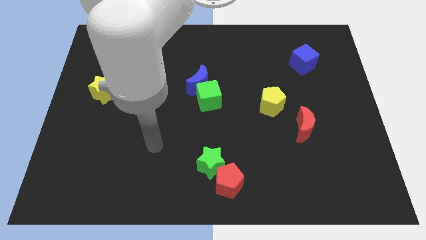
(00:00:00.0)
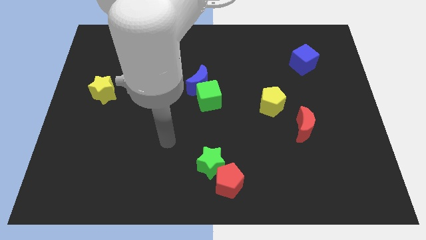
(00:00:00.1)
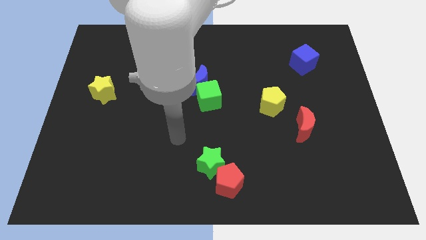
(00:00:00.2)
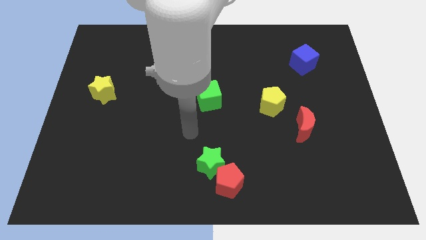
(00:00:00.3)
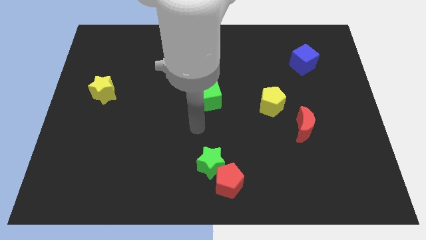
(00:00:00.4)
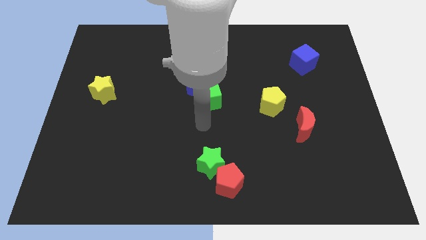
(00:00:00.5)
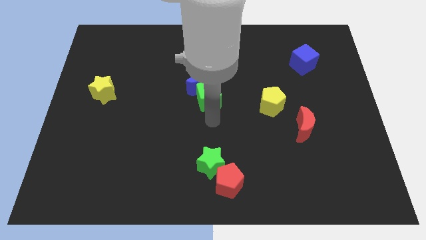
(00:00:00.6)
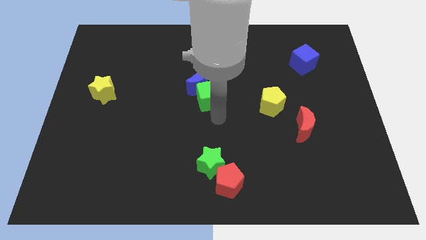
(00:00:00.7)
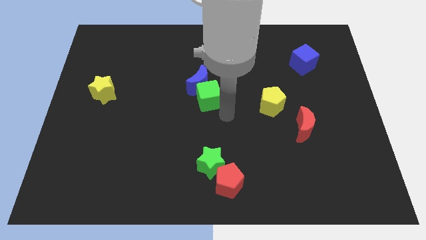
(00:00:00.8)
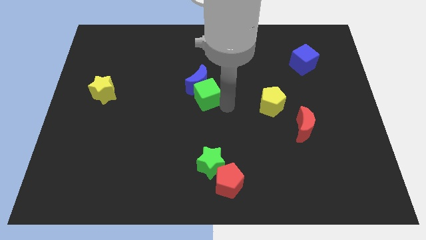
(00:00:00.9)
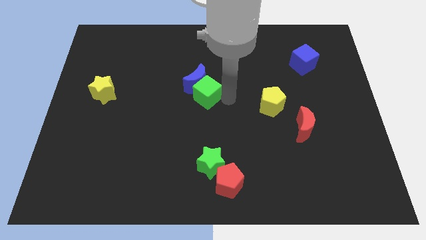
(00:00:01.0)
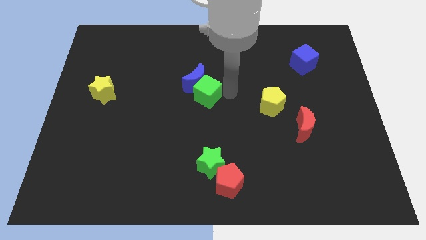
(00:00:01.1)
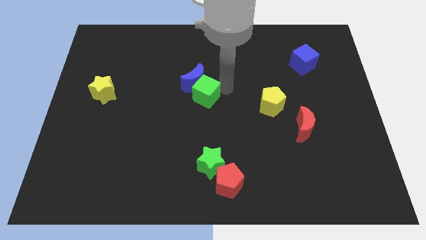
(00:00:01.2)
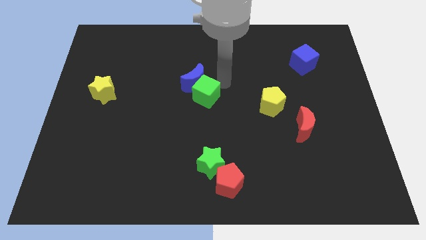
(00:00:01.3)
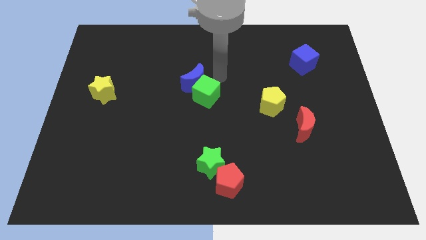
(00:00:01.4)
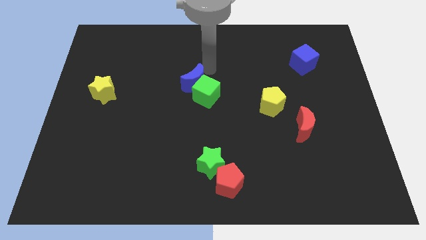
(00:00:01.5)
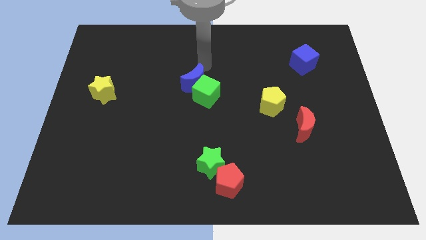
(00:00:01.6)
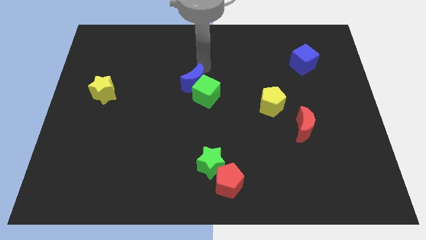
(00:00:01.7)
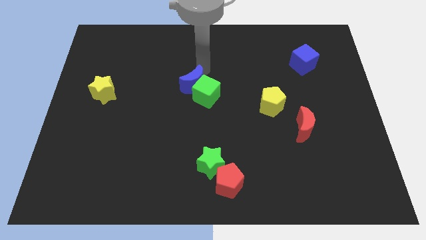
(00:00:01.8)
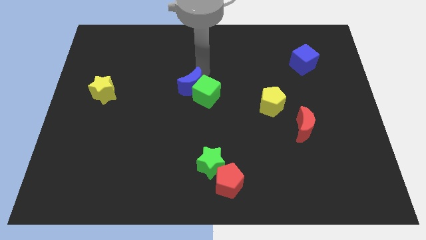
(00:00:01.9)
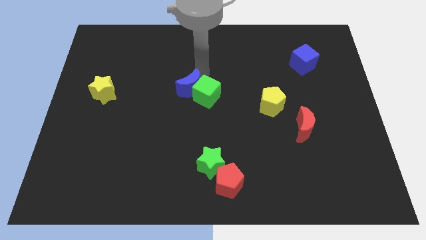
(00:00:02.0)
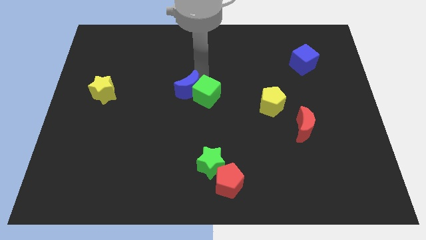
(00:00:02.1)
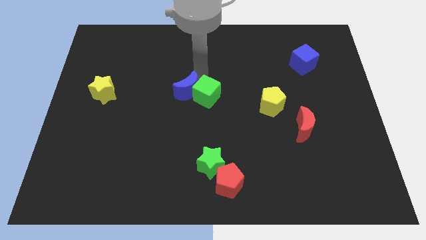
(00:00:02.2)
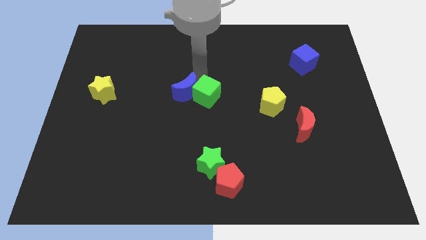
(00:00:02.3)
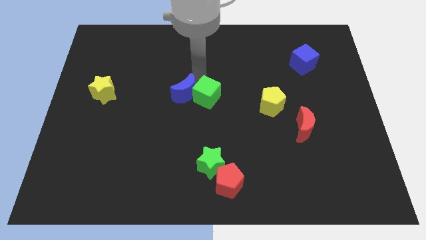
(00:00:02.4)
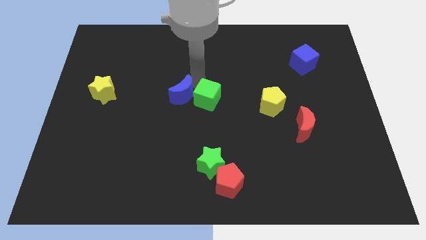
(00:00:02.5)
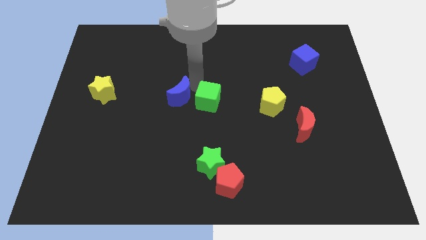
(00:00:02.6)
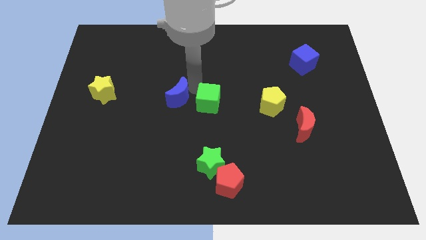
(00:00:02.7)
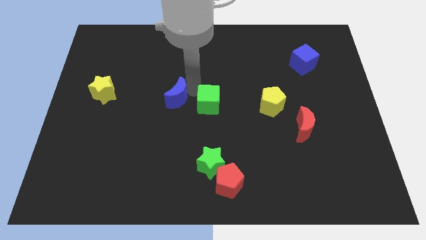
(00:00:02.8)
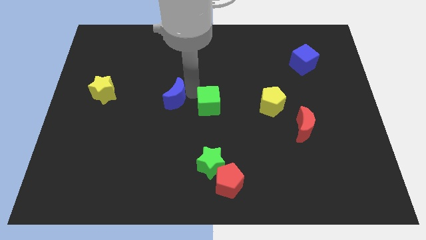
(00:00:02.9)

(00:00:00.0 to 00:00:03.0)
slide the blue moon diagonally downwards and left a little

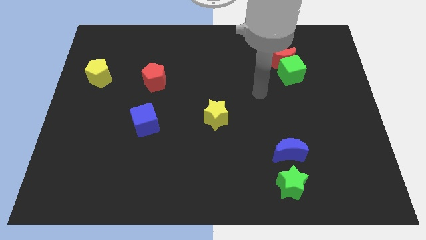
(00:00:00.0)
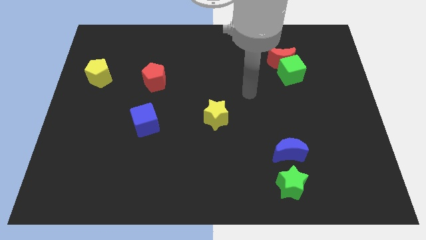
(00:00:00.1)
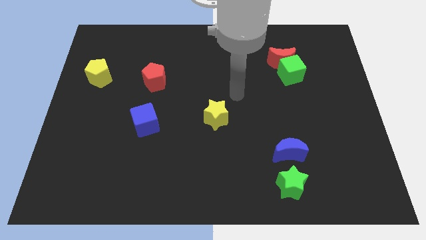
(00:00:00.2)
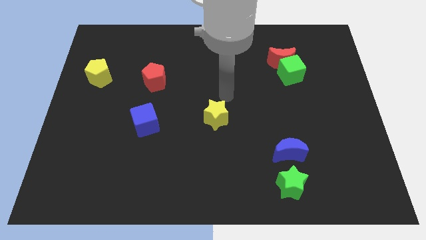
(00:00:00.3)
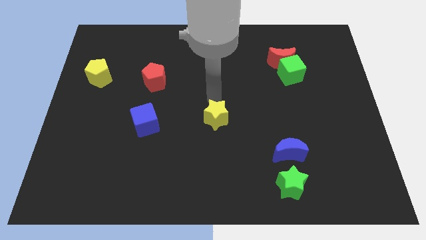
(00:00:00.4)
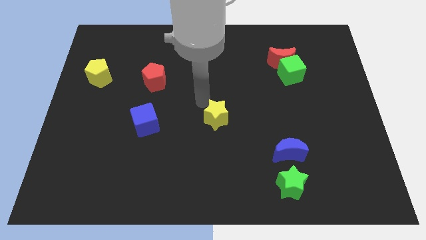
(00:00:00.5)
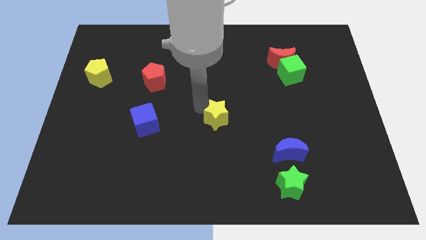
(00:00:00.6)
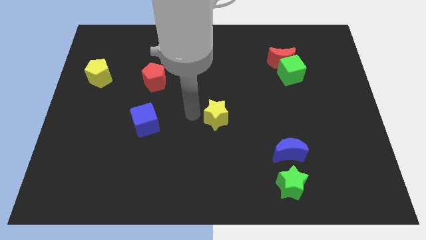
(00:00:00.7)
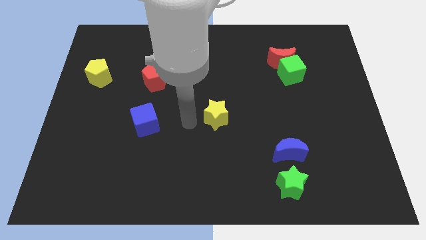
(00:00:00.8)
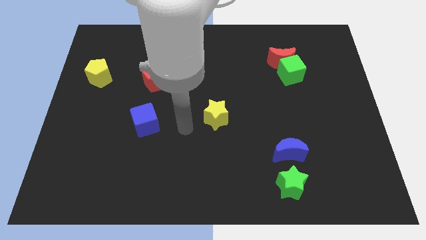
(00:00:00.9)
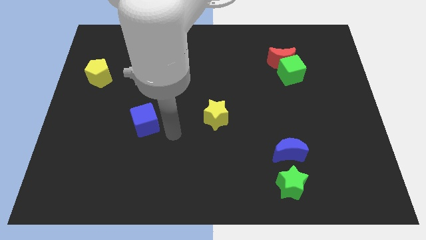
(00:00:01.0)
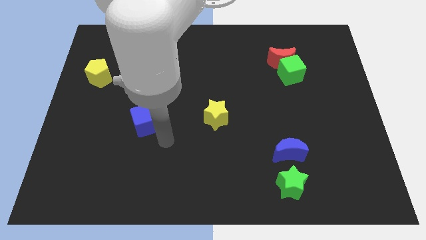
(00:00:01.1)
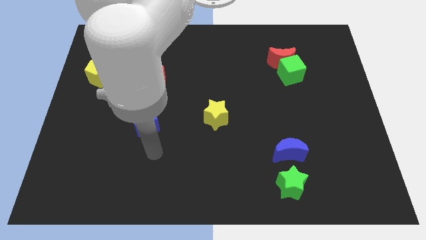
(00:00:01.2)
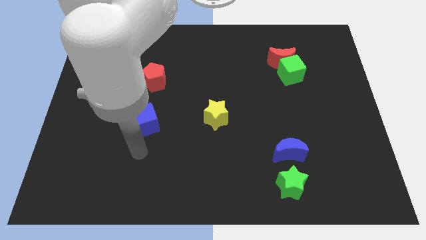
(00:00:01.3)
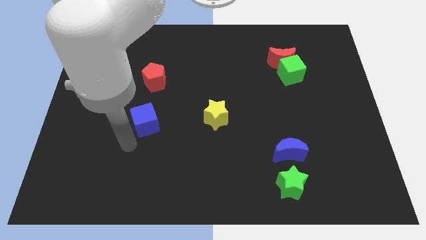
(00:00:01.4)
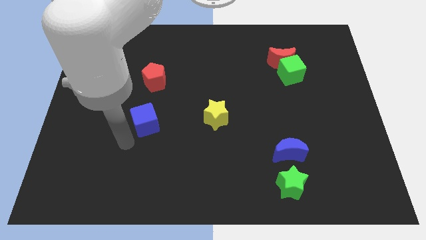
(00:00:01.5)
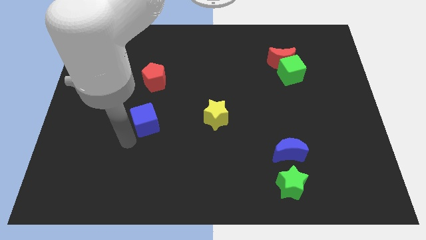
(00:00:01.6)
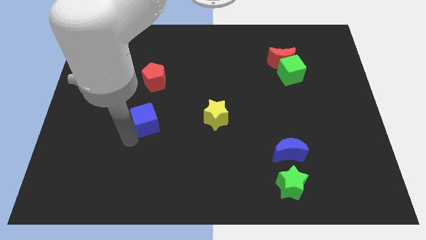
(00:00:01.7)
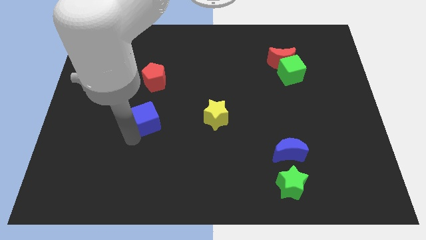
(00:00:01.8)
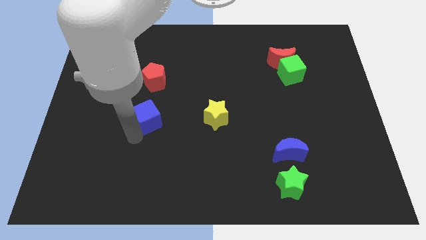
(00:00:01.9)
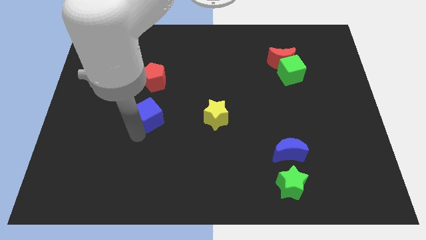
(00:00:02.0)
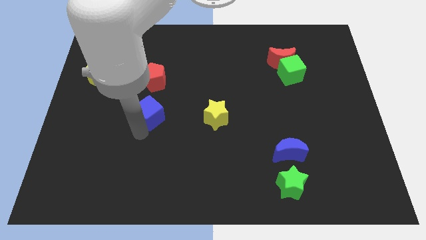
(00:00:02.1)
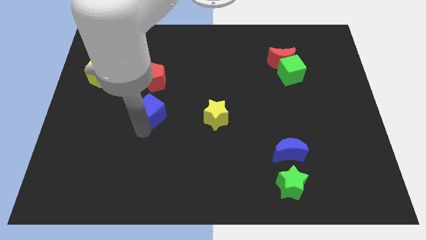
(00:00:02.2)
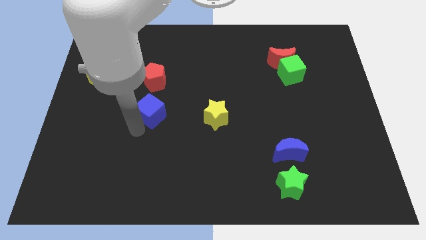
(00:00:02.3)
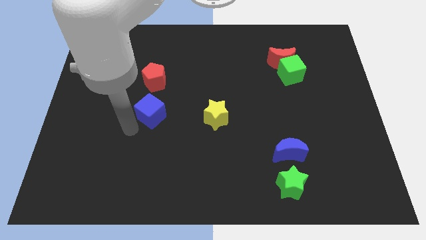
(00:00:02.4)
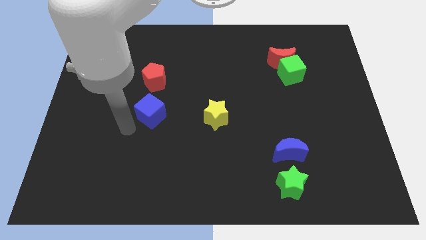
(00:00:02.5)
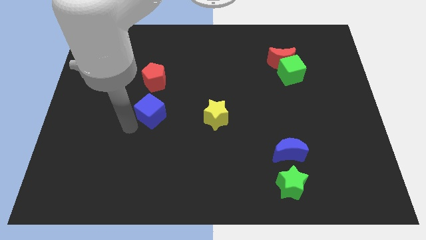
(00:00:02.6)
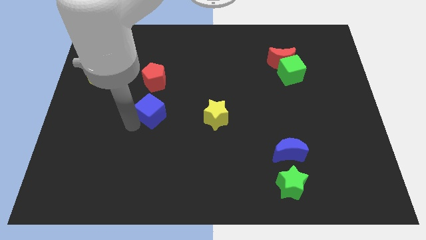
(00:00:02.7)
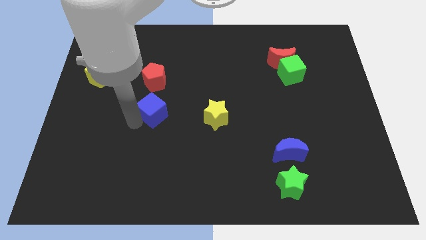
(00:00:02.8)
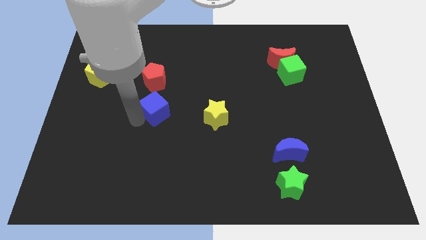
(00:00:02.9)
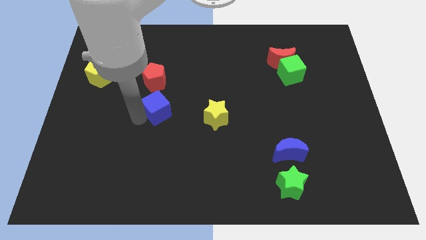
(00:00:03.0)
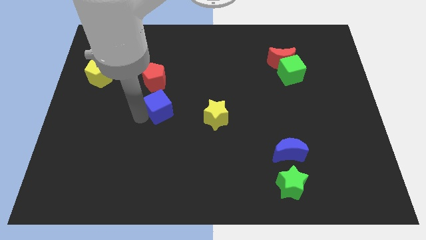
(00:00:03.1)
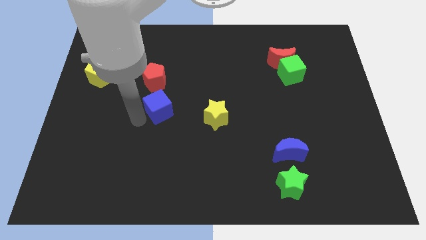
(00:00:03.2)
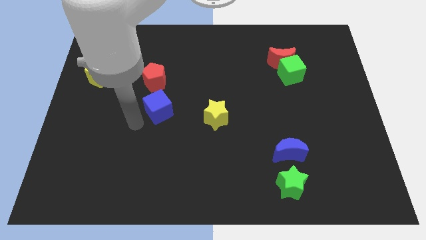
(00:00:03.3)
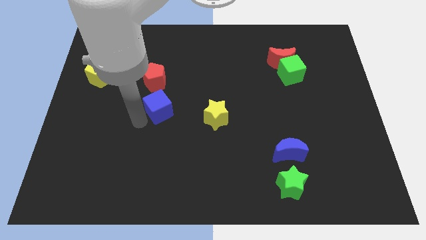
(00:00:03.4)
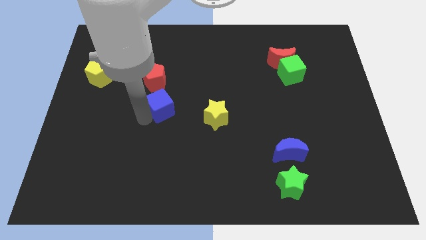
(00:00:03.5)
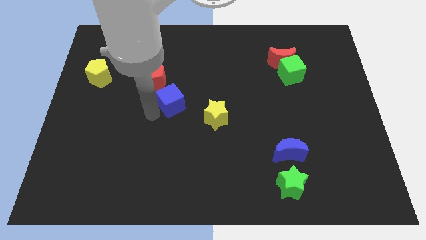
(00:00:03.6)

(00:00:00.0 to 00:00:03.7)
slide the blue cube a little upwards and to the right diagonally

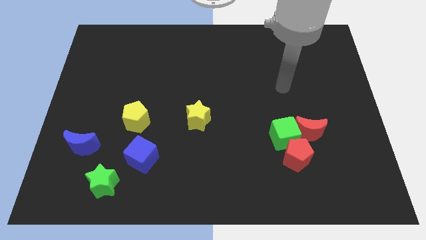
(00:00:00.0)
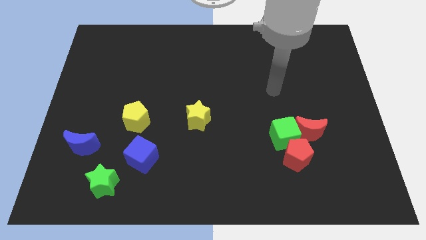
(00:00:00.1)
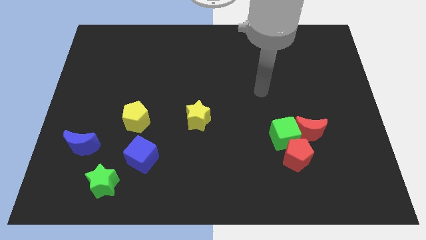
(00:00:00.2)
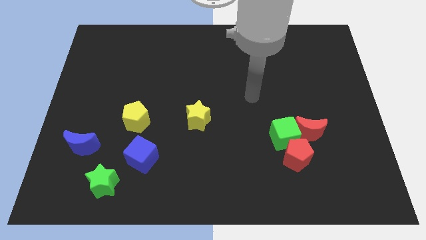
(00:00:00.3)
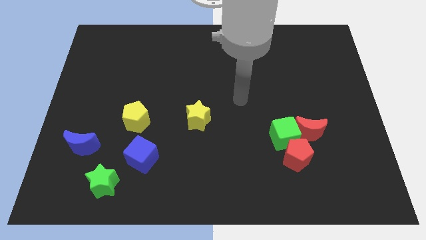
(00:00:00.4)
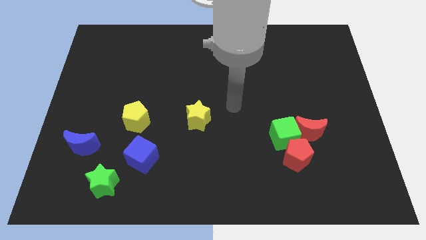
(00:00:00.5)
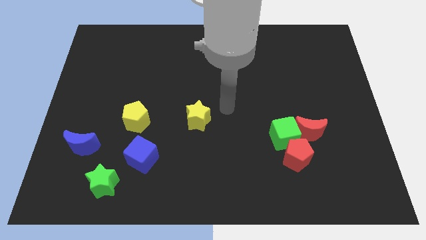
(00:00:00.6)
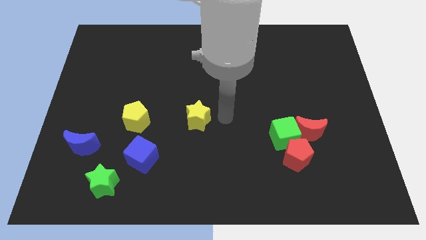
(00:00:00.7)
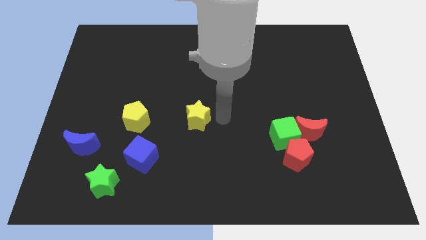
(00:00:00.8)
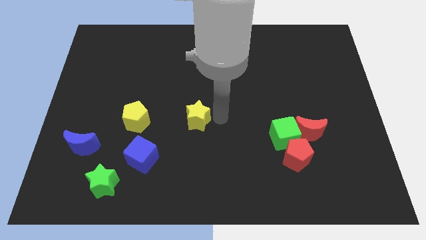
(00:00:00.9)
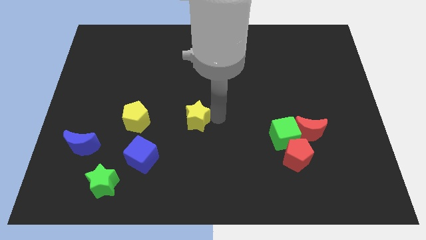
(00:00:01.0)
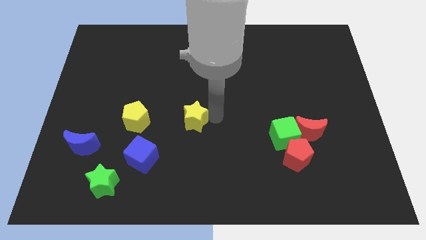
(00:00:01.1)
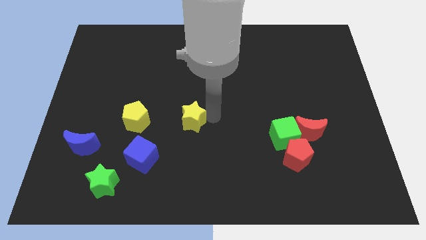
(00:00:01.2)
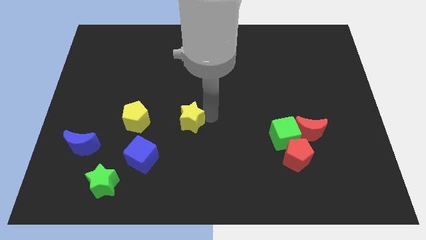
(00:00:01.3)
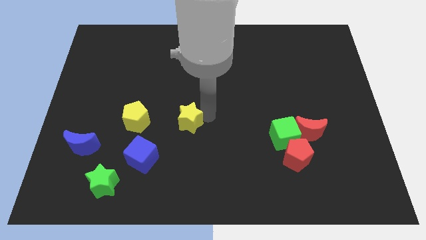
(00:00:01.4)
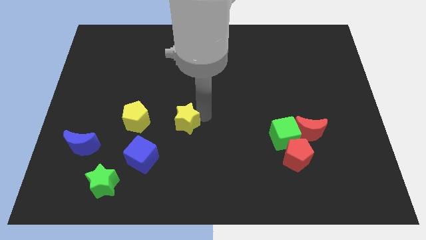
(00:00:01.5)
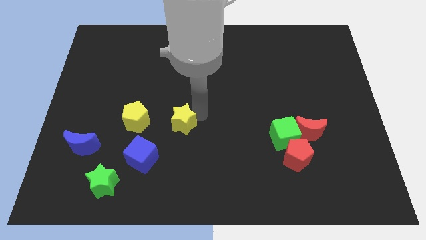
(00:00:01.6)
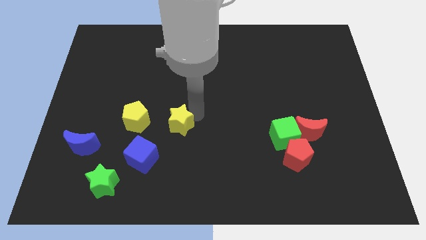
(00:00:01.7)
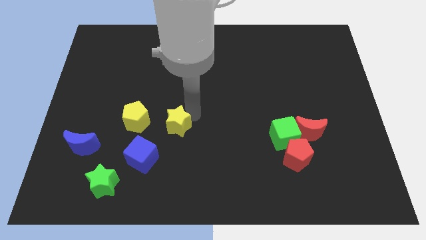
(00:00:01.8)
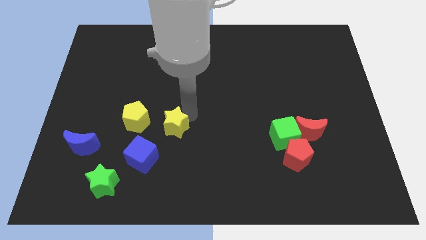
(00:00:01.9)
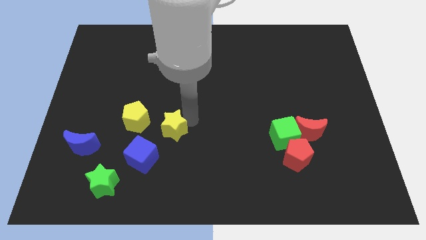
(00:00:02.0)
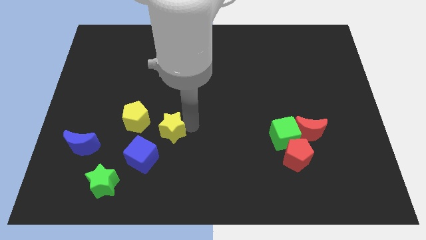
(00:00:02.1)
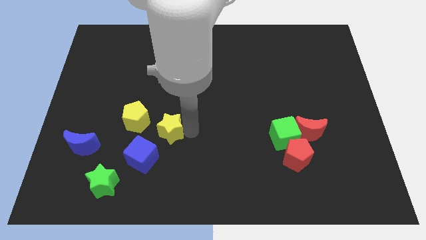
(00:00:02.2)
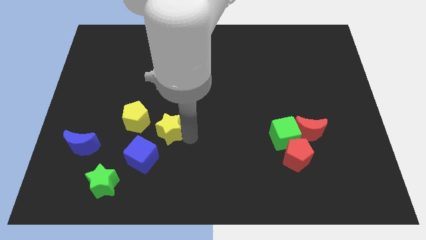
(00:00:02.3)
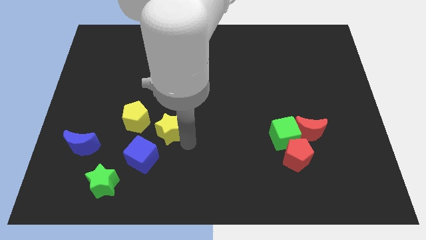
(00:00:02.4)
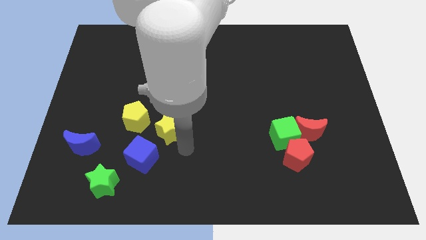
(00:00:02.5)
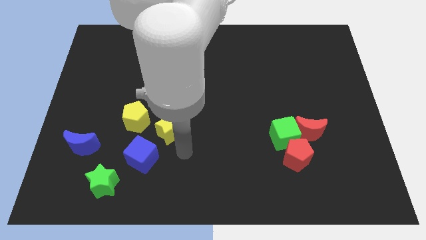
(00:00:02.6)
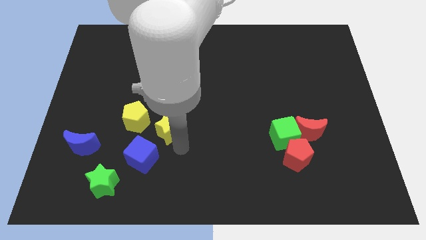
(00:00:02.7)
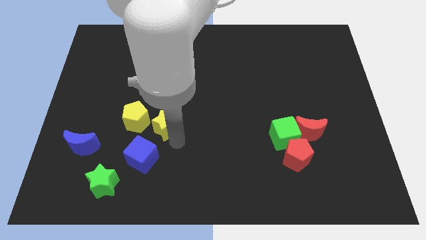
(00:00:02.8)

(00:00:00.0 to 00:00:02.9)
push the yellow star to the left a little bit
